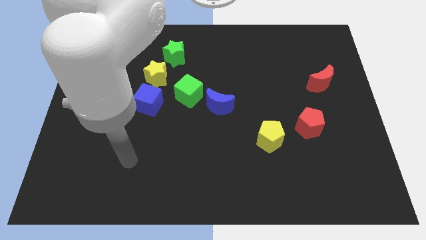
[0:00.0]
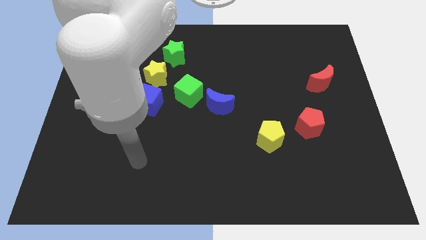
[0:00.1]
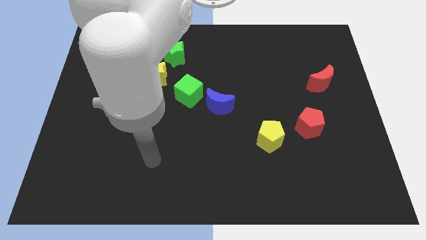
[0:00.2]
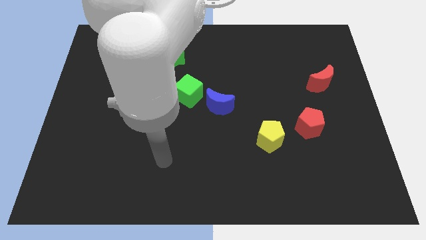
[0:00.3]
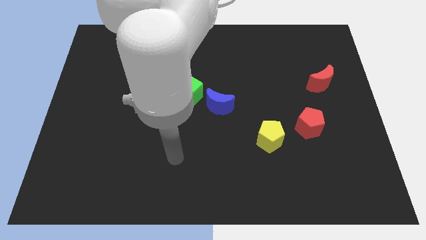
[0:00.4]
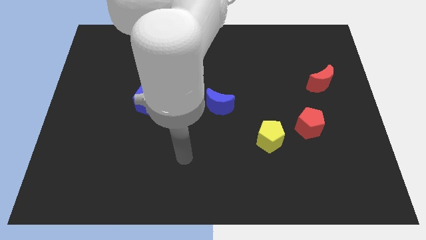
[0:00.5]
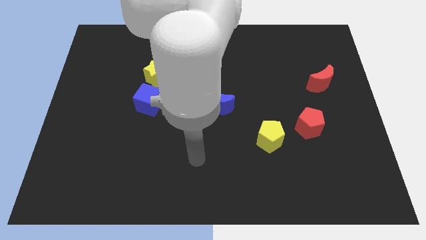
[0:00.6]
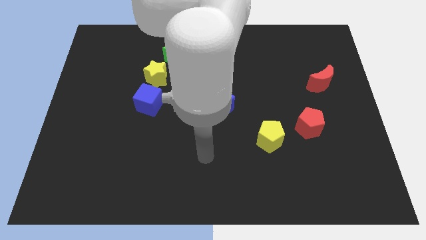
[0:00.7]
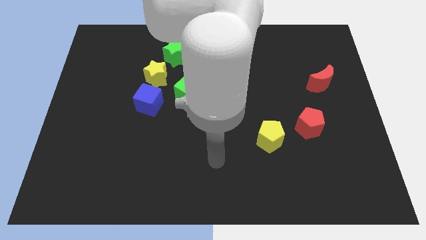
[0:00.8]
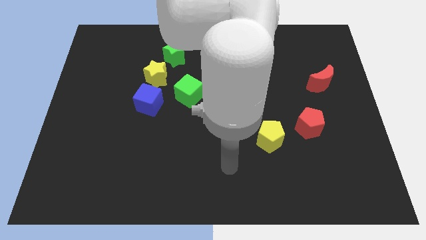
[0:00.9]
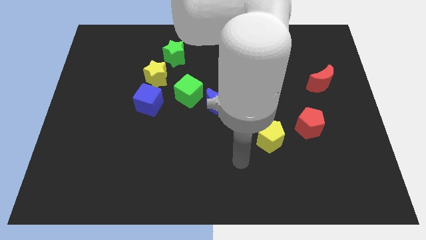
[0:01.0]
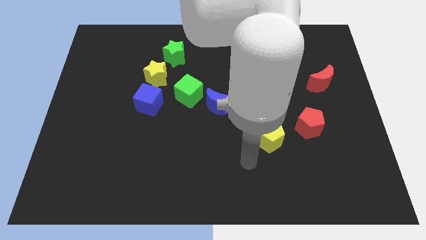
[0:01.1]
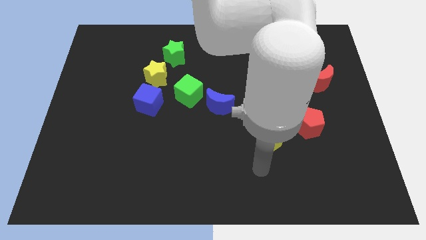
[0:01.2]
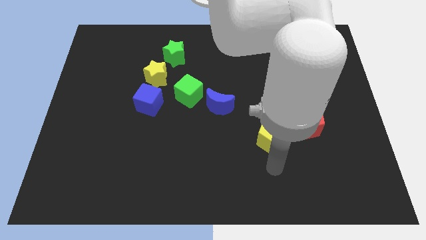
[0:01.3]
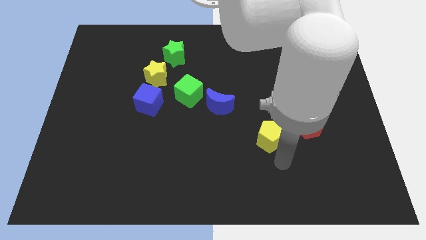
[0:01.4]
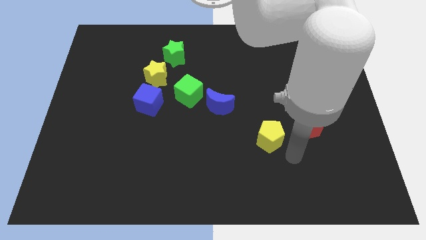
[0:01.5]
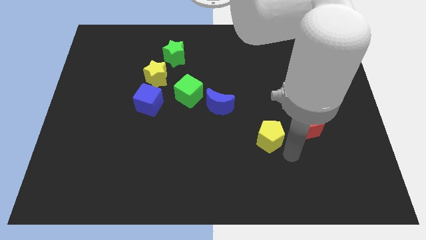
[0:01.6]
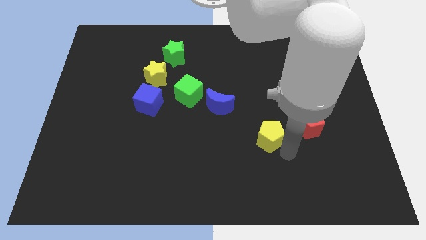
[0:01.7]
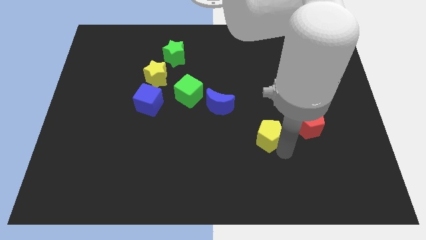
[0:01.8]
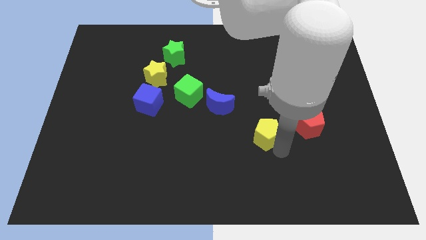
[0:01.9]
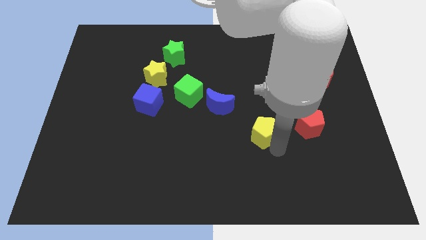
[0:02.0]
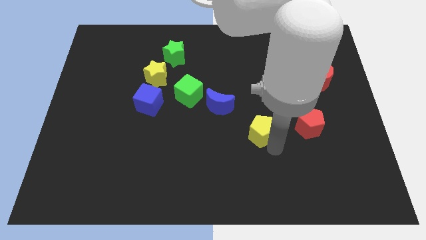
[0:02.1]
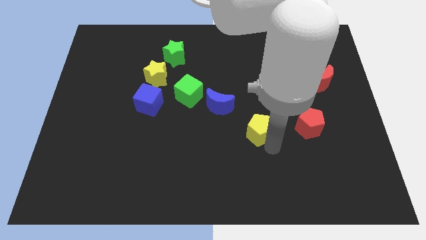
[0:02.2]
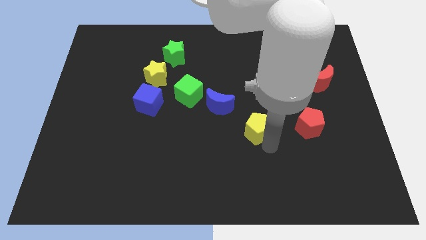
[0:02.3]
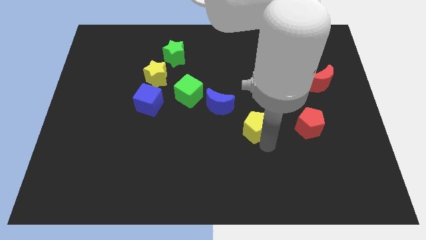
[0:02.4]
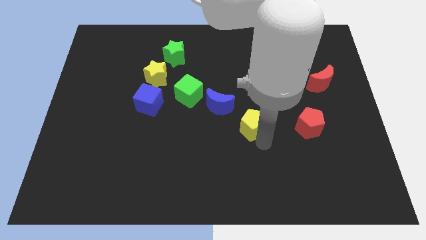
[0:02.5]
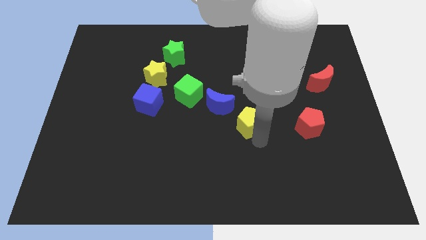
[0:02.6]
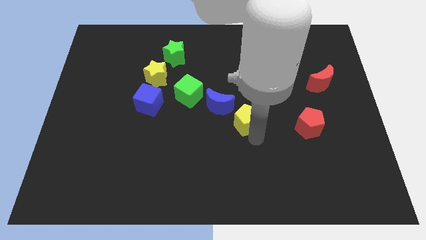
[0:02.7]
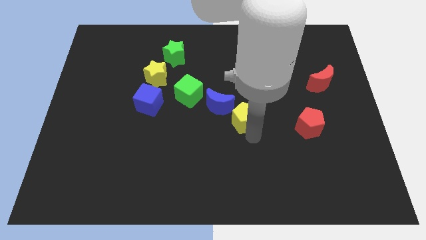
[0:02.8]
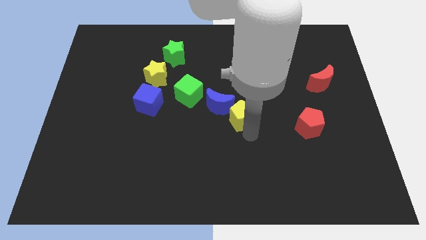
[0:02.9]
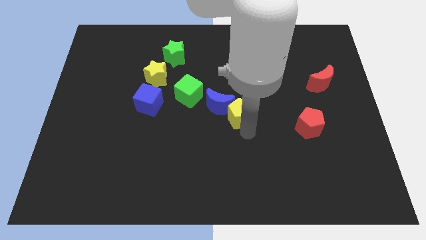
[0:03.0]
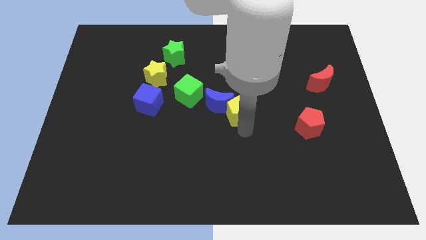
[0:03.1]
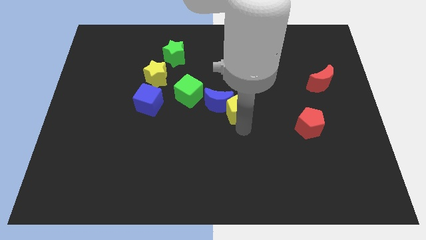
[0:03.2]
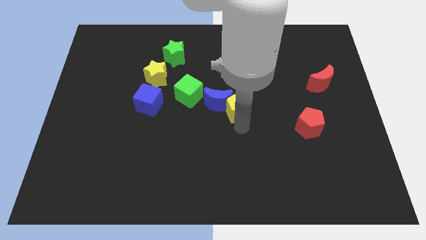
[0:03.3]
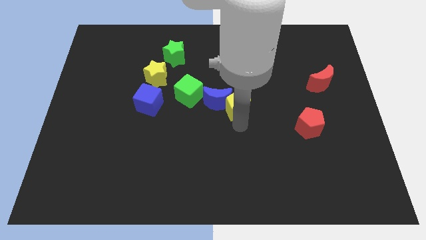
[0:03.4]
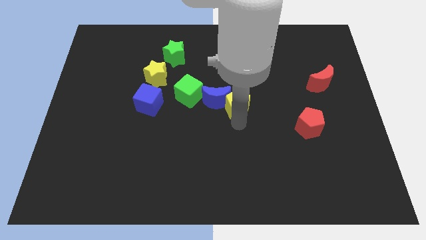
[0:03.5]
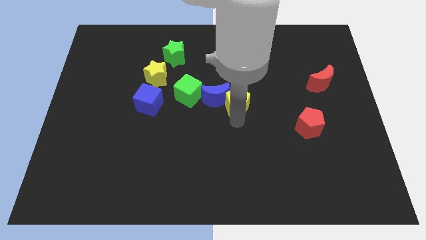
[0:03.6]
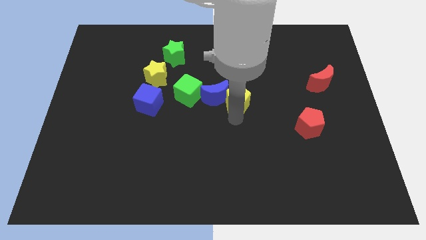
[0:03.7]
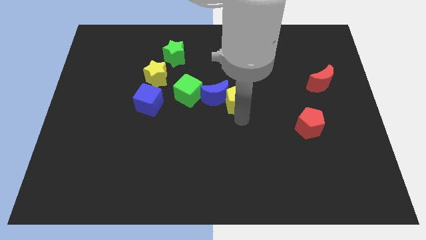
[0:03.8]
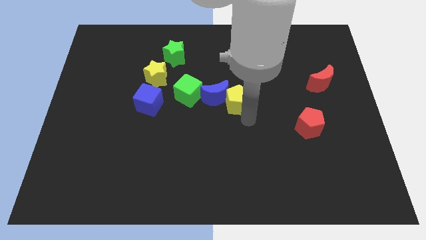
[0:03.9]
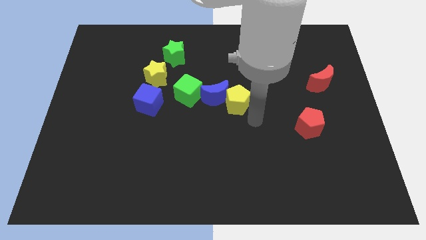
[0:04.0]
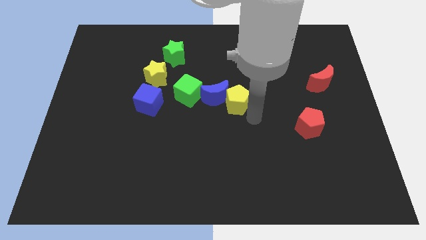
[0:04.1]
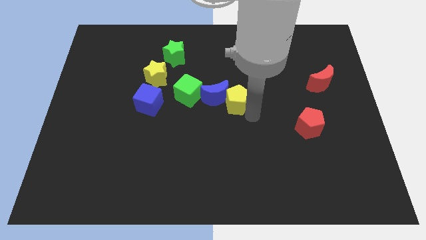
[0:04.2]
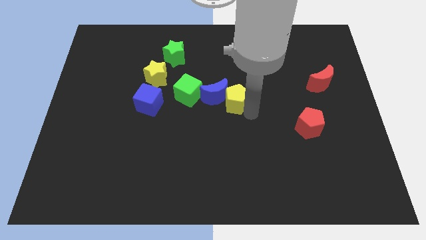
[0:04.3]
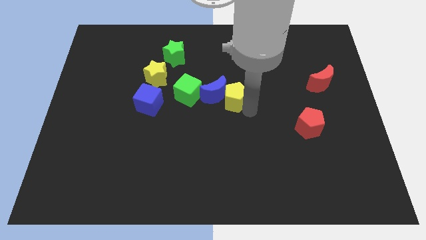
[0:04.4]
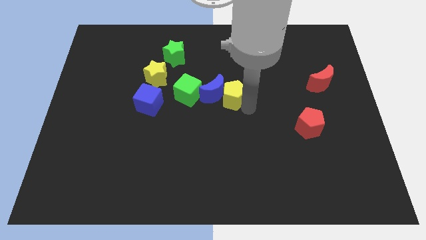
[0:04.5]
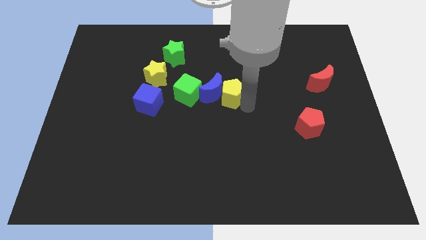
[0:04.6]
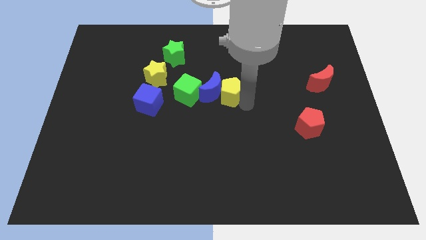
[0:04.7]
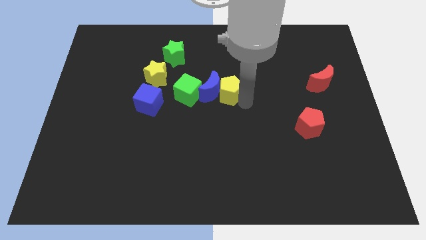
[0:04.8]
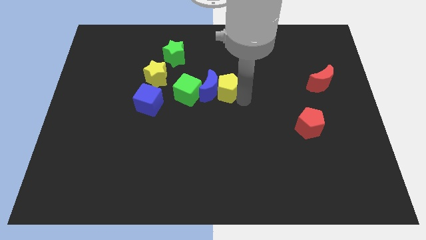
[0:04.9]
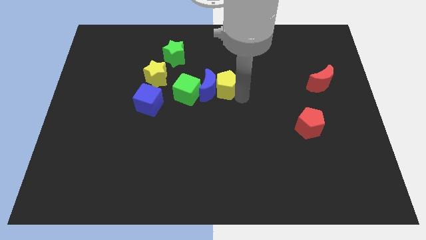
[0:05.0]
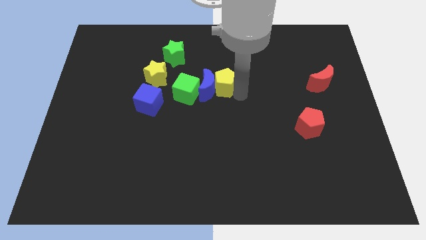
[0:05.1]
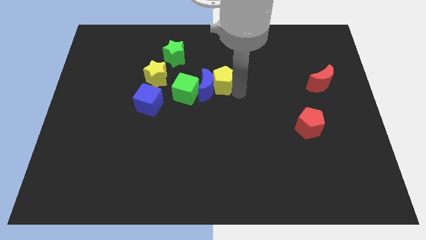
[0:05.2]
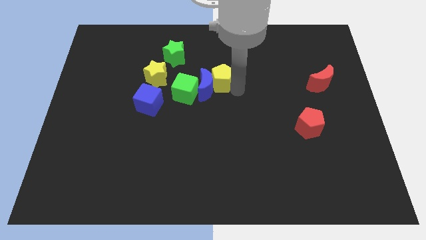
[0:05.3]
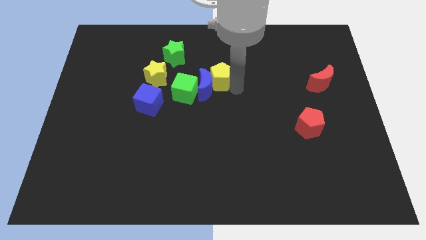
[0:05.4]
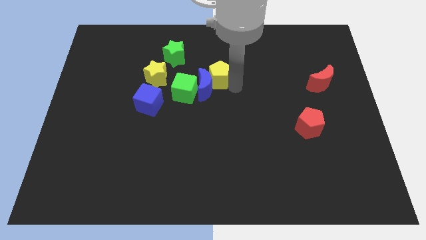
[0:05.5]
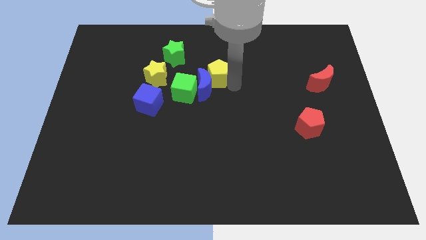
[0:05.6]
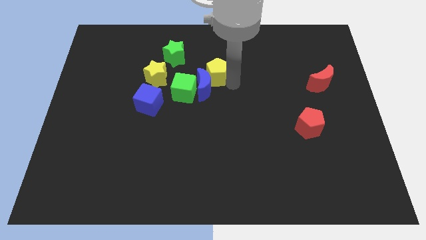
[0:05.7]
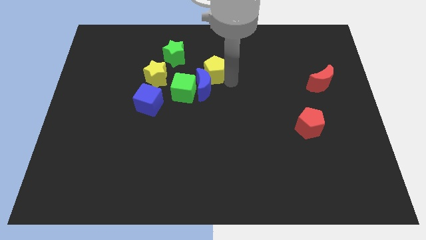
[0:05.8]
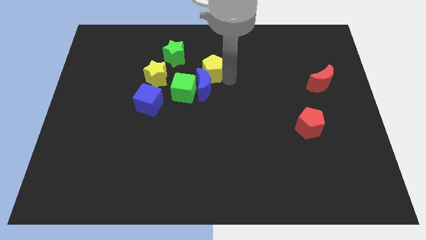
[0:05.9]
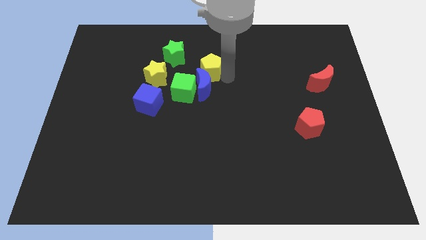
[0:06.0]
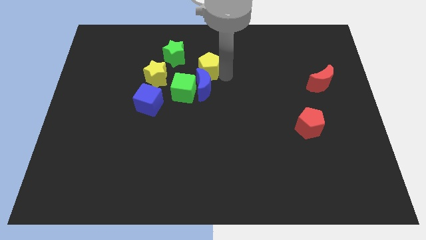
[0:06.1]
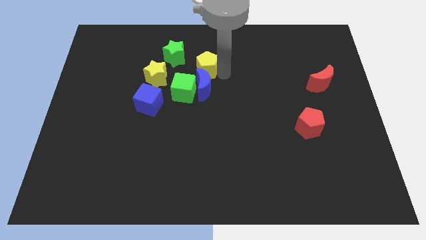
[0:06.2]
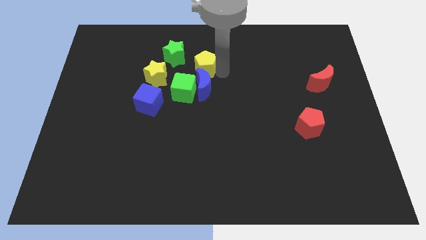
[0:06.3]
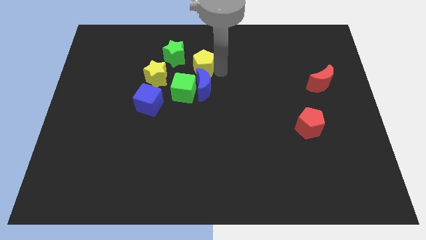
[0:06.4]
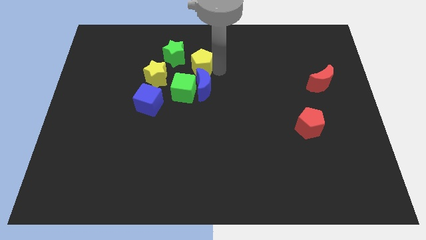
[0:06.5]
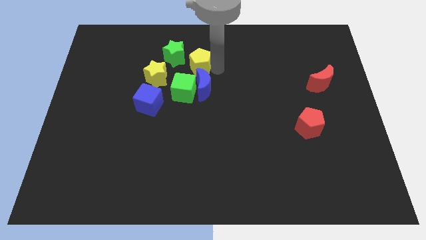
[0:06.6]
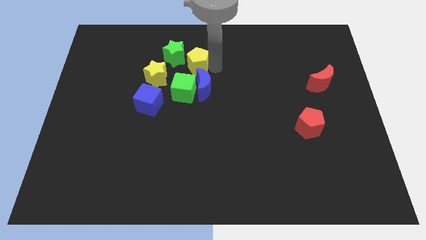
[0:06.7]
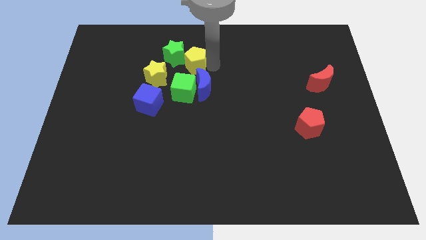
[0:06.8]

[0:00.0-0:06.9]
push the yellow pentagon next to the green star
